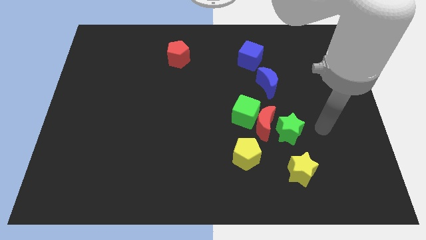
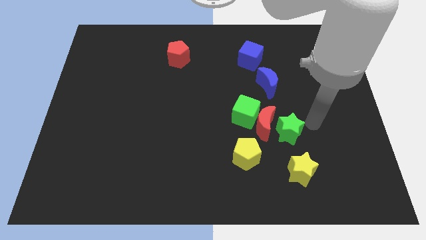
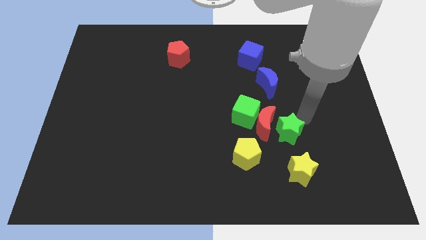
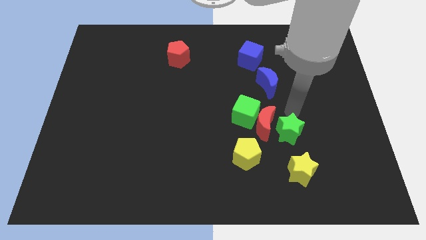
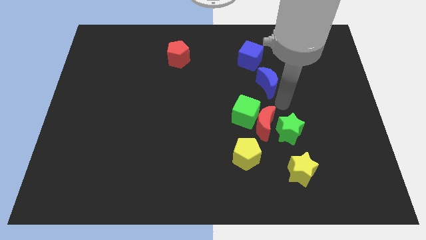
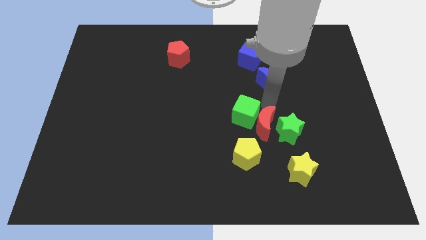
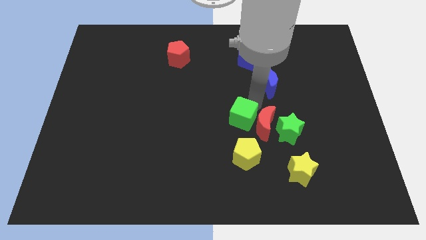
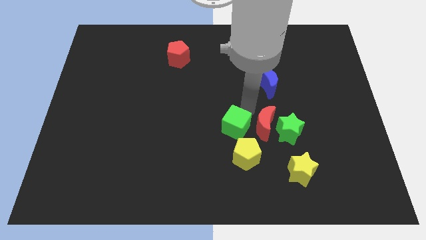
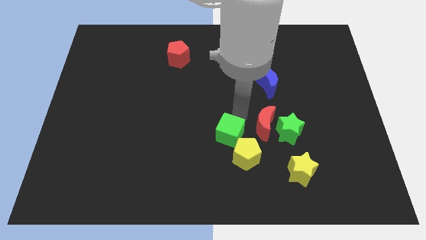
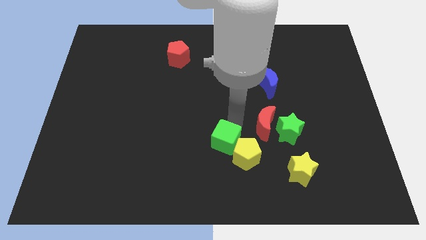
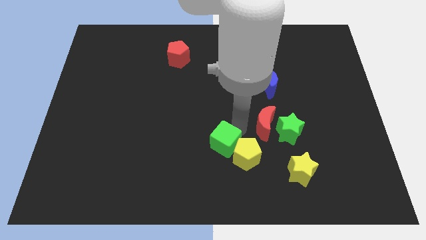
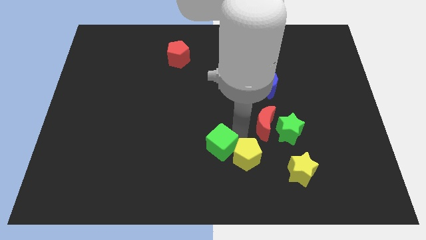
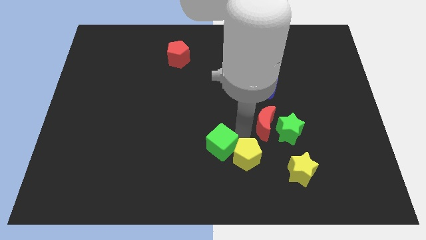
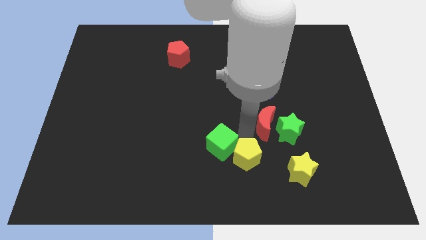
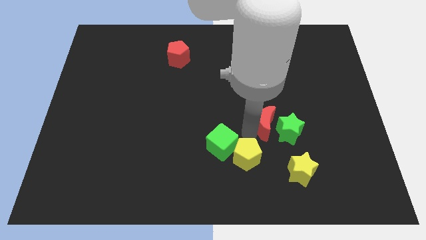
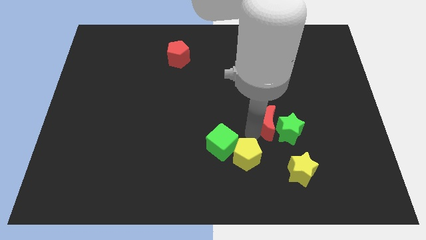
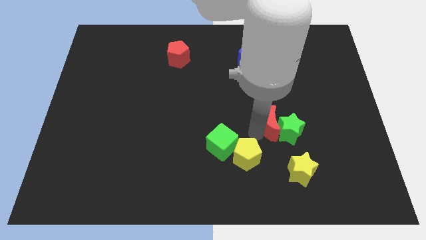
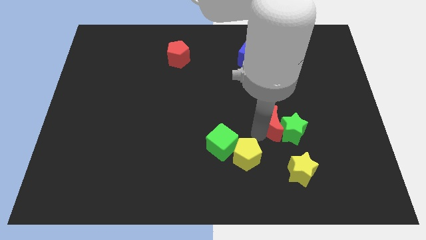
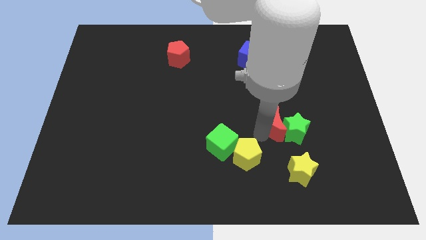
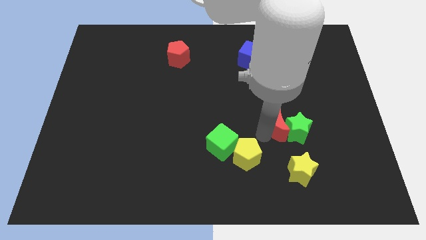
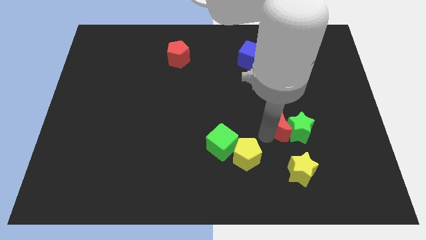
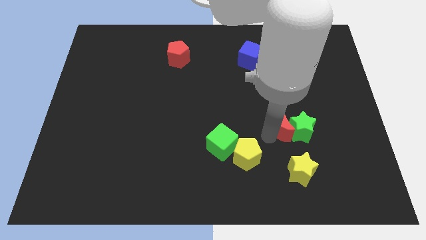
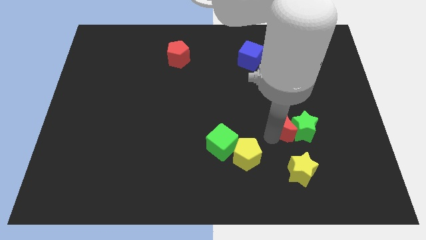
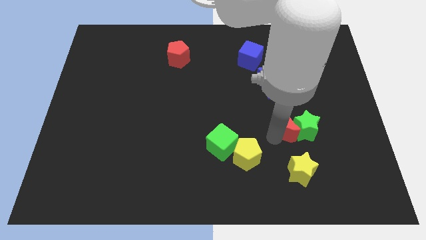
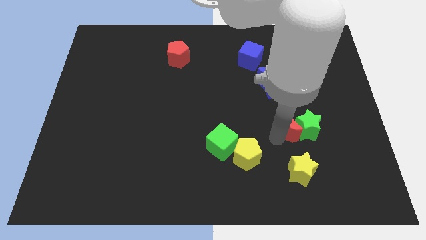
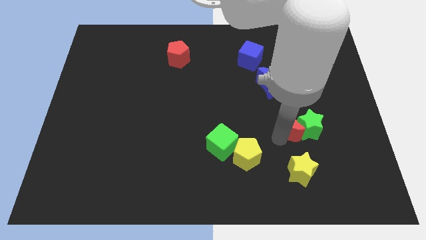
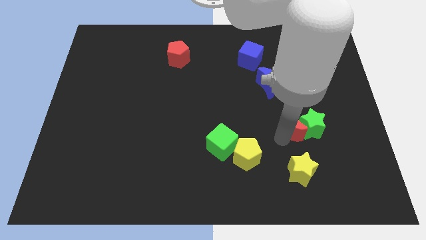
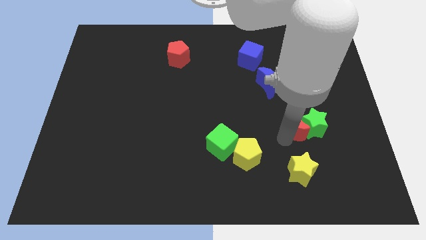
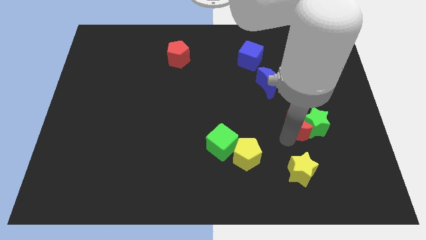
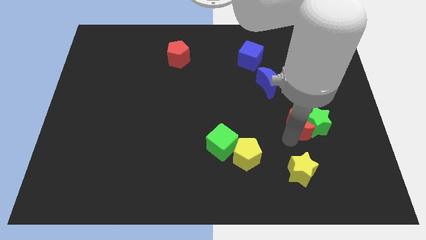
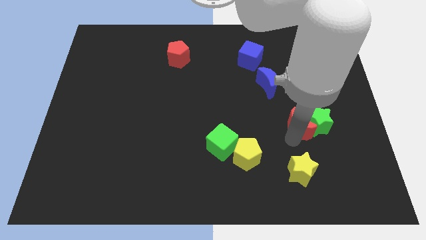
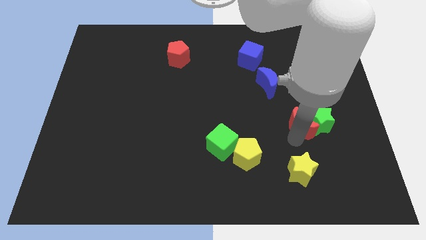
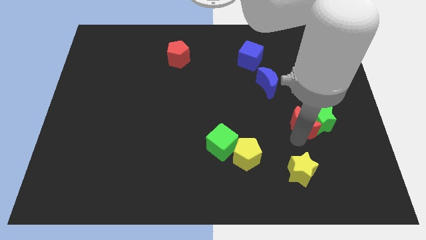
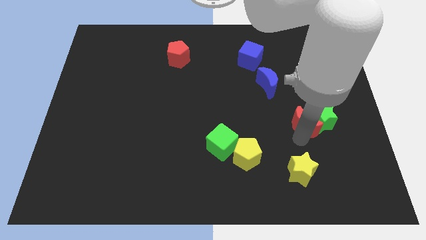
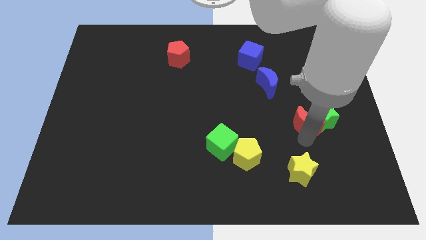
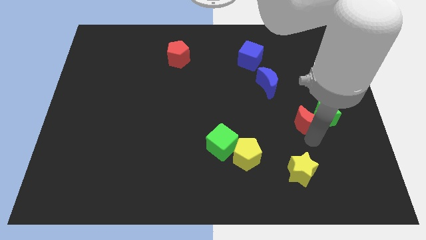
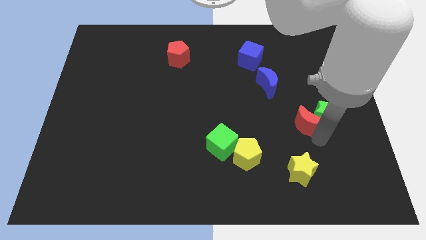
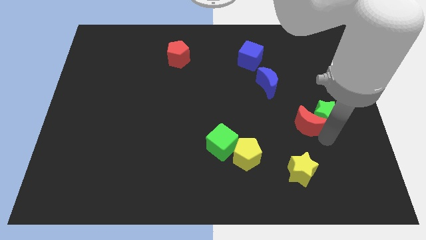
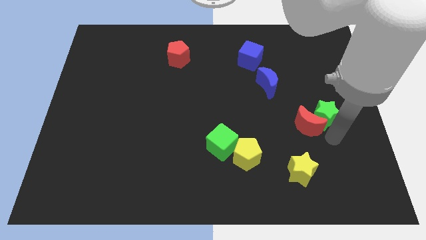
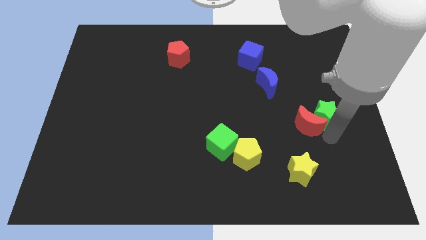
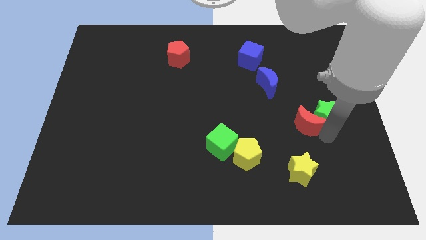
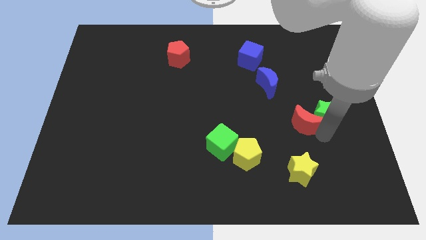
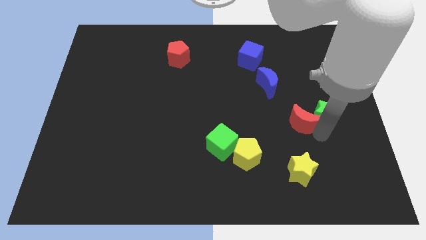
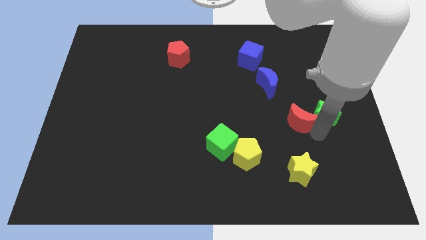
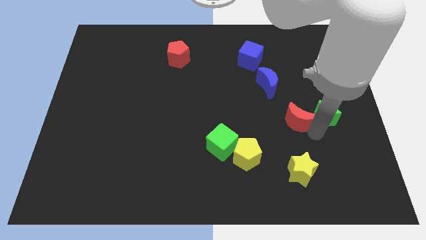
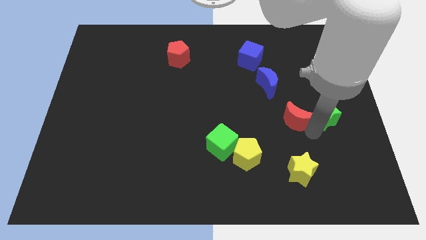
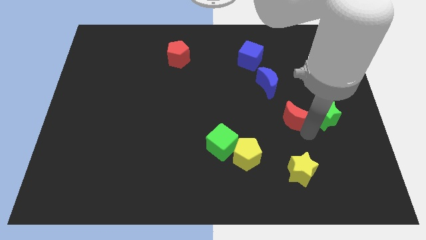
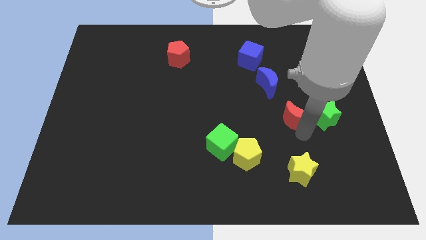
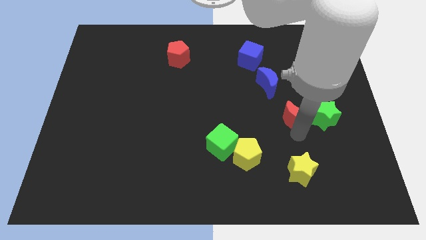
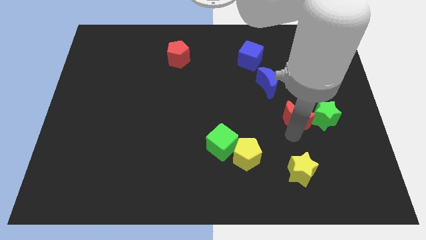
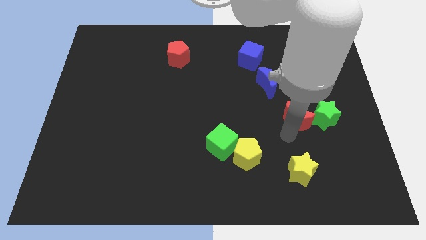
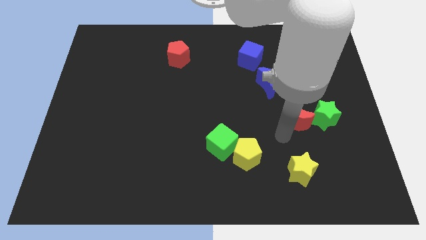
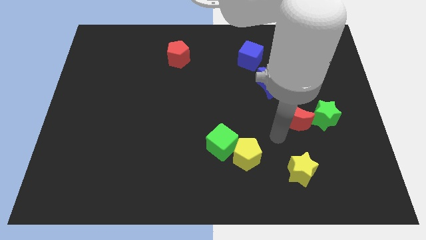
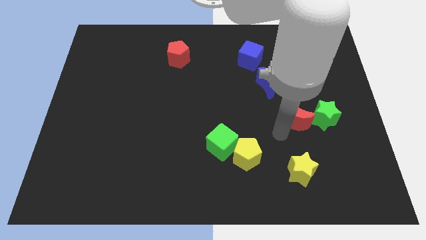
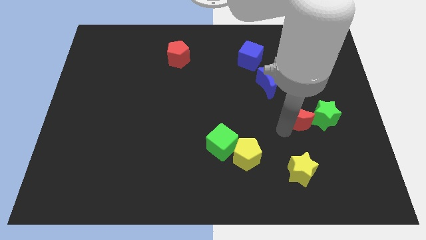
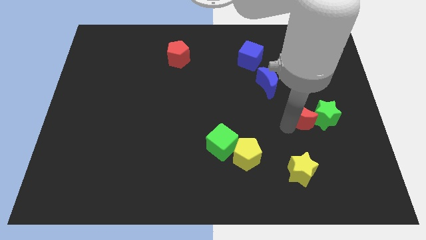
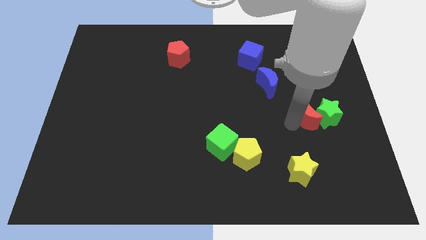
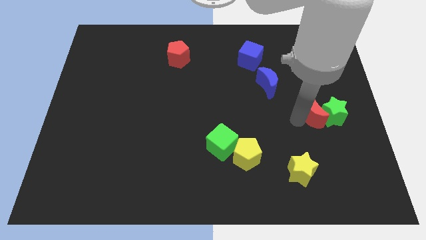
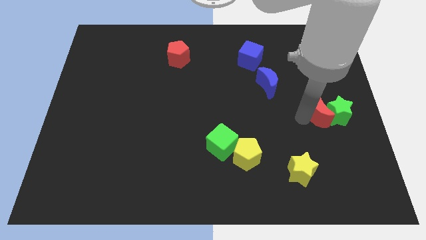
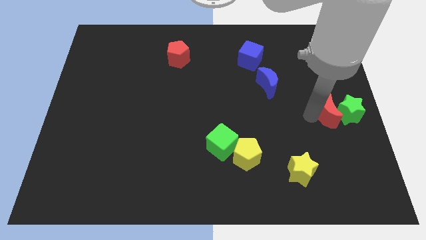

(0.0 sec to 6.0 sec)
move the red moon to the center right

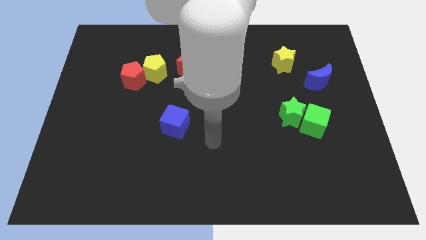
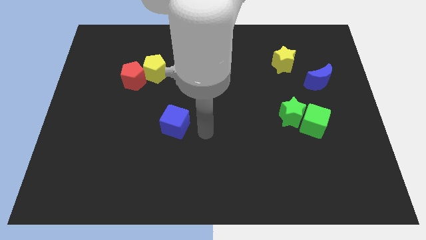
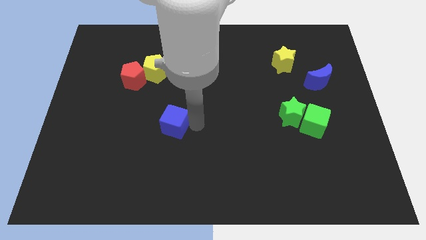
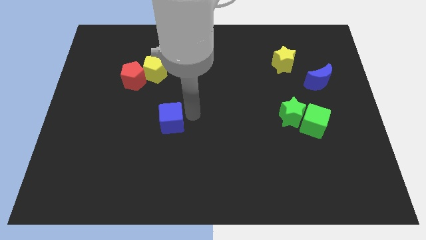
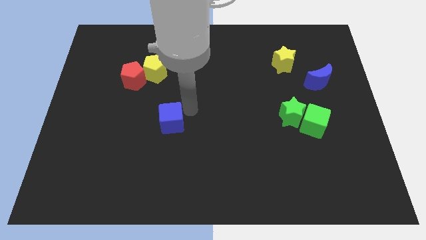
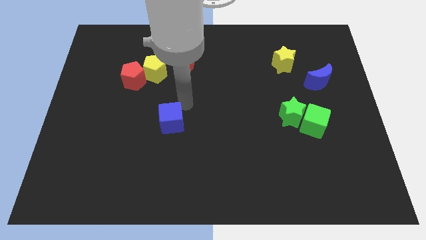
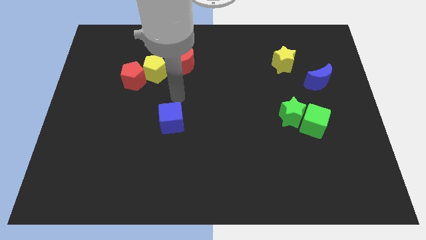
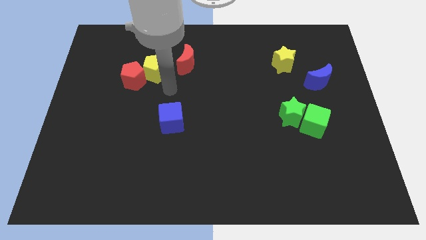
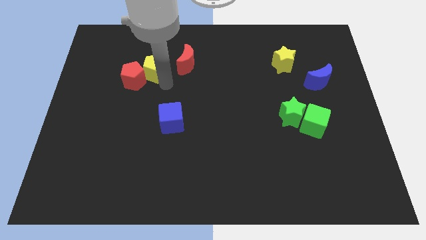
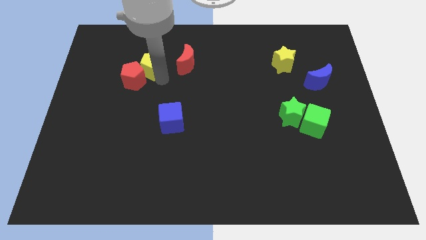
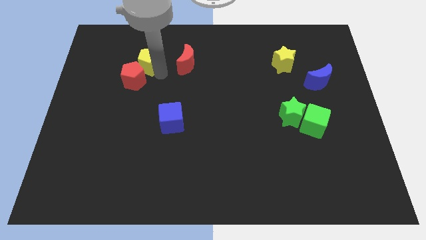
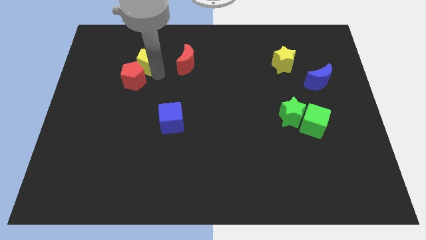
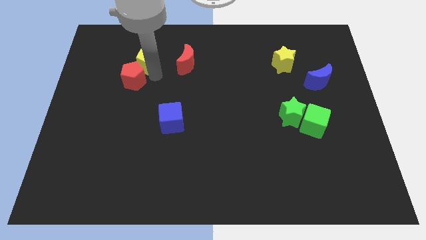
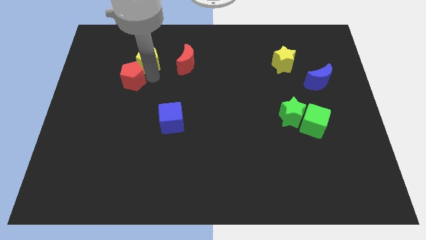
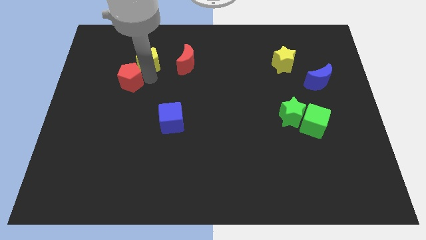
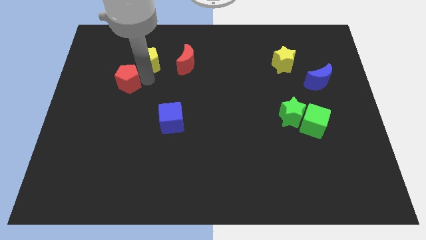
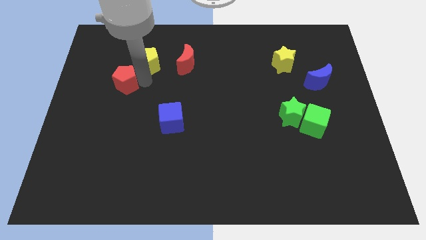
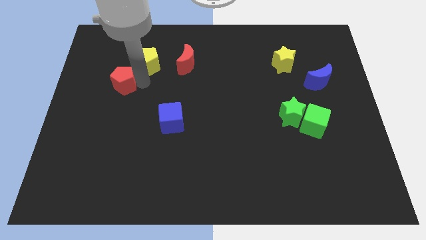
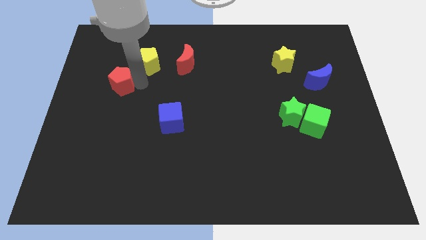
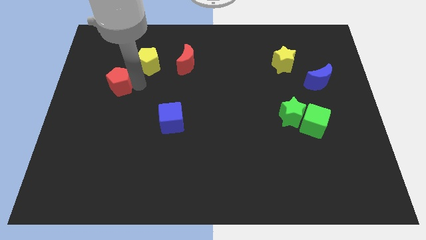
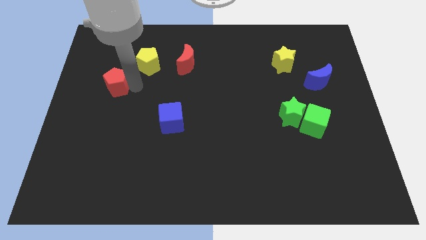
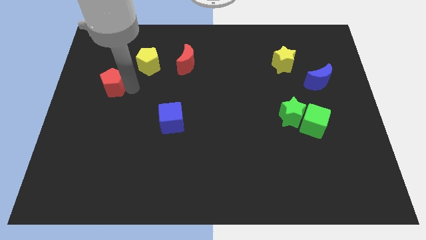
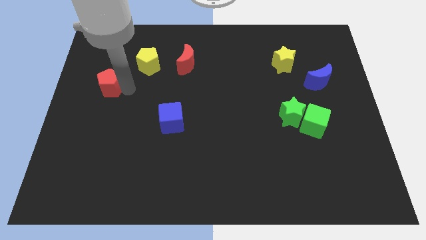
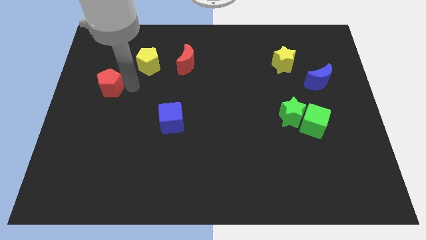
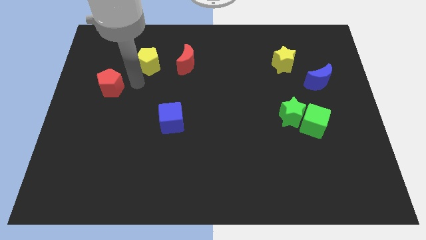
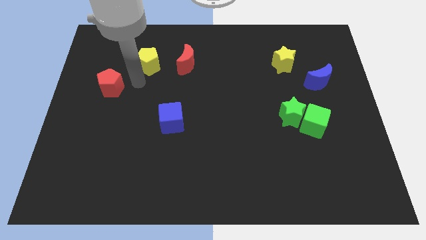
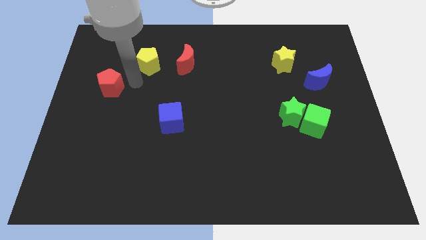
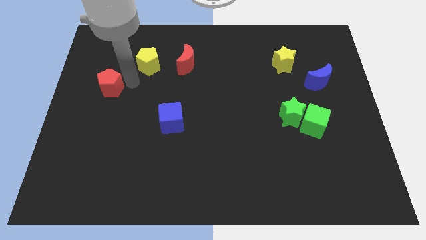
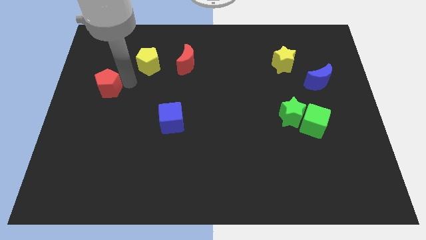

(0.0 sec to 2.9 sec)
slide the red pentagon to the left side
